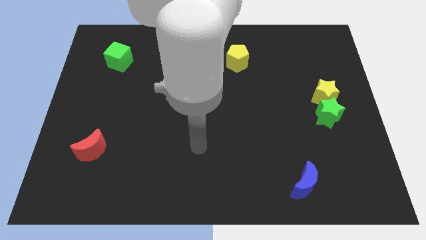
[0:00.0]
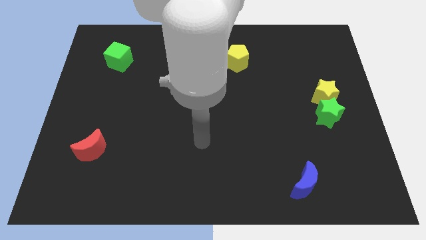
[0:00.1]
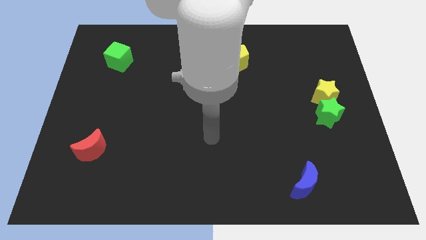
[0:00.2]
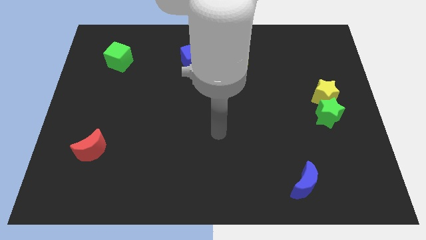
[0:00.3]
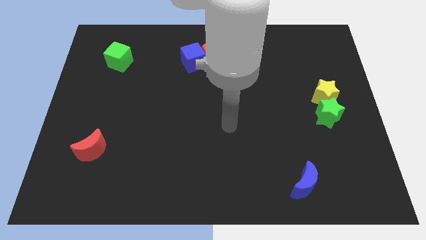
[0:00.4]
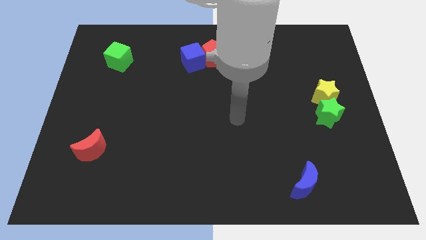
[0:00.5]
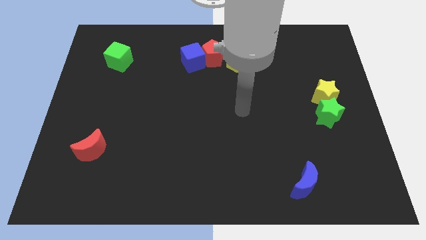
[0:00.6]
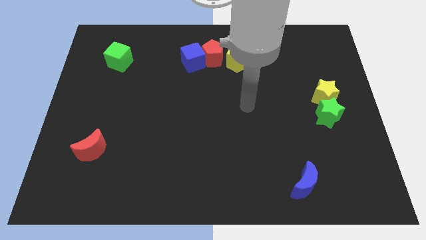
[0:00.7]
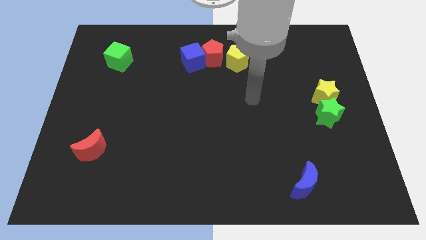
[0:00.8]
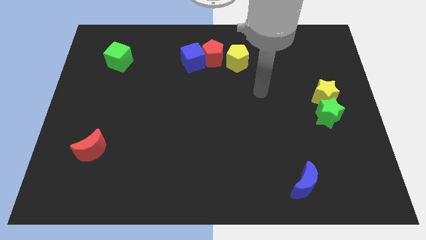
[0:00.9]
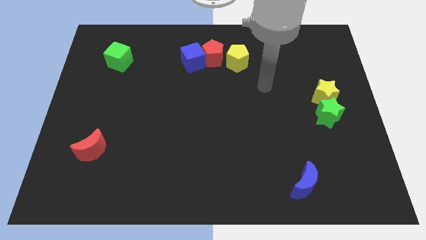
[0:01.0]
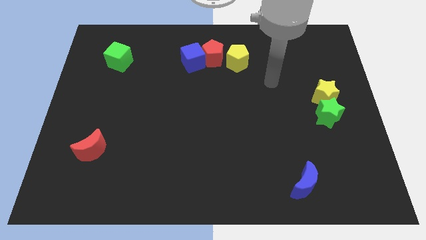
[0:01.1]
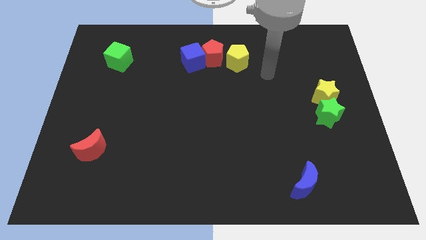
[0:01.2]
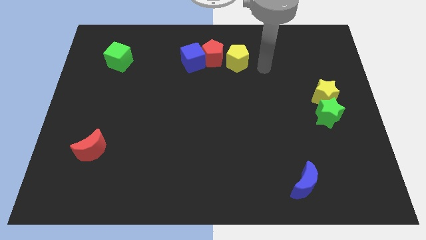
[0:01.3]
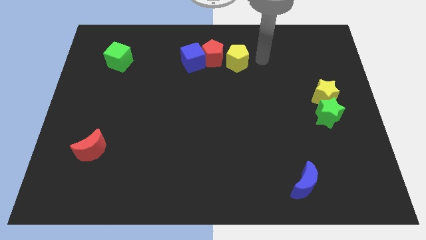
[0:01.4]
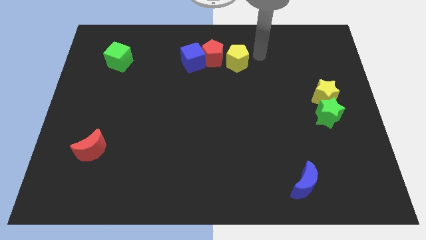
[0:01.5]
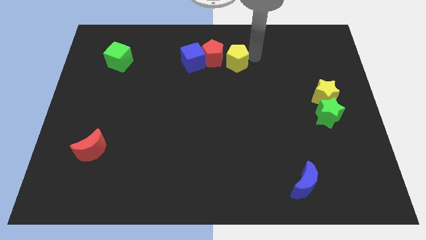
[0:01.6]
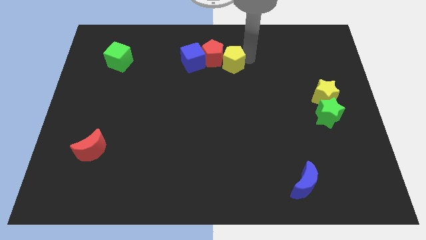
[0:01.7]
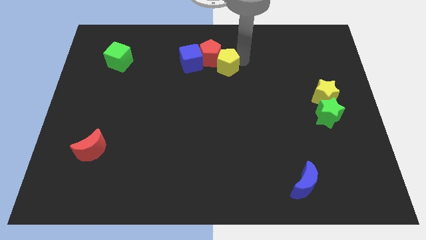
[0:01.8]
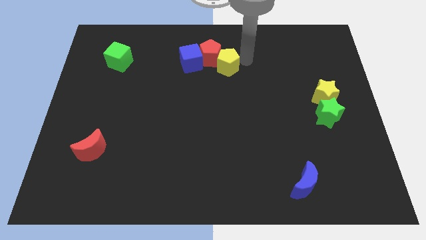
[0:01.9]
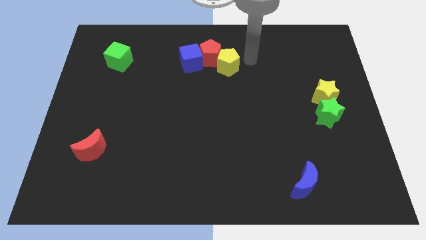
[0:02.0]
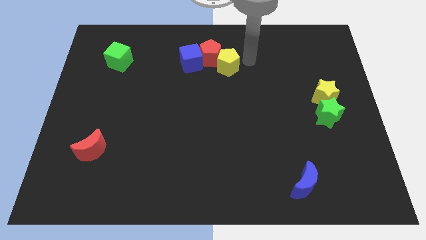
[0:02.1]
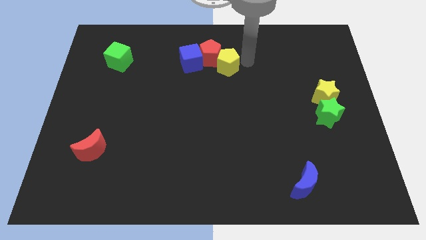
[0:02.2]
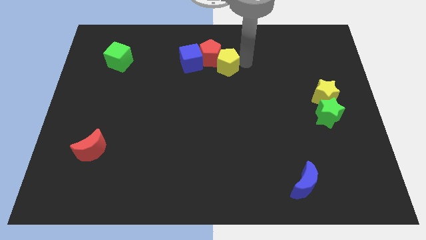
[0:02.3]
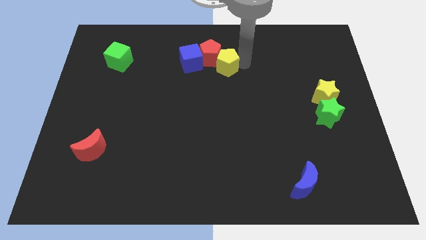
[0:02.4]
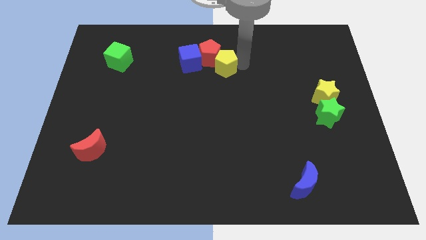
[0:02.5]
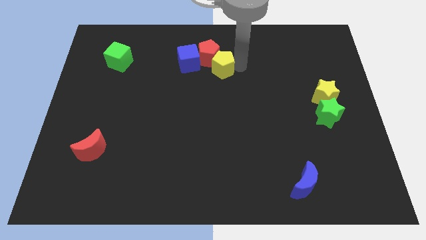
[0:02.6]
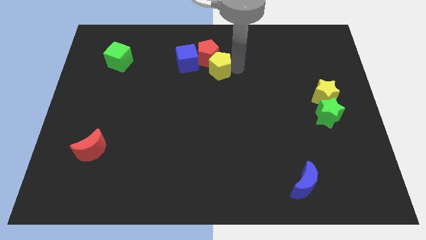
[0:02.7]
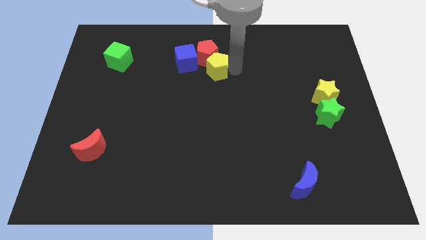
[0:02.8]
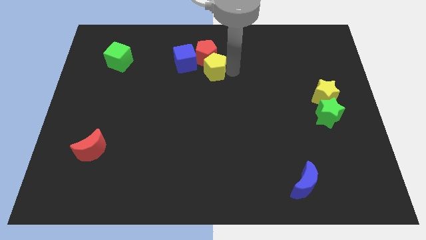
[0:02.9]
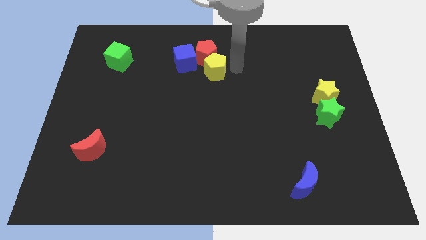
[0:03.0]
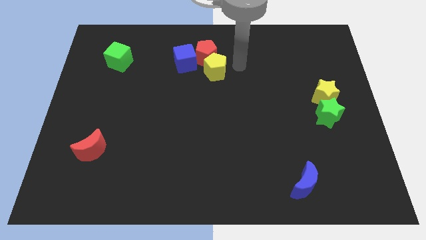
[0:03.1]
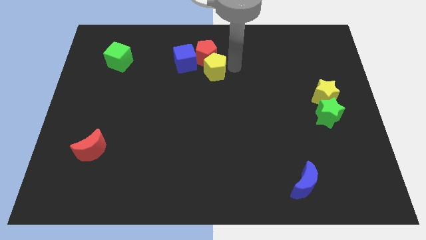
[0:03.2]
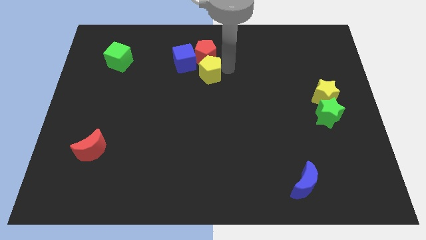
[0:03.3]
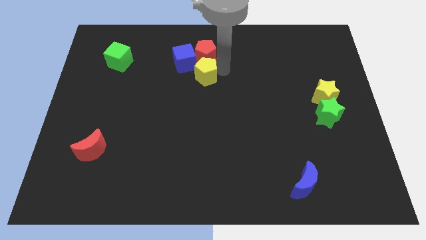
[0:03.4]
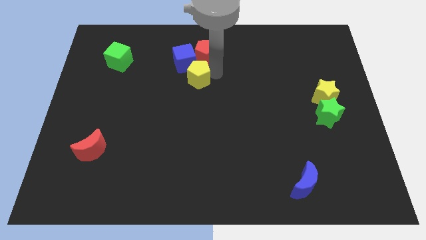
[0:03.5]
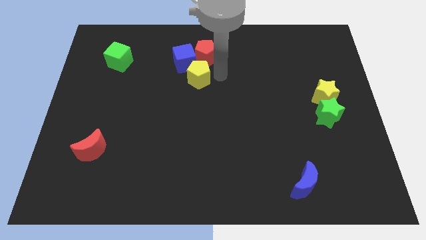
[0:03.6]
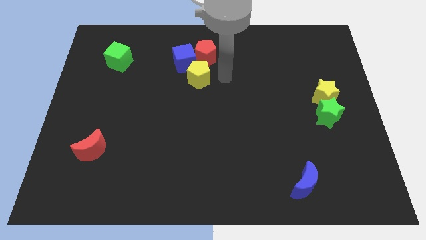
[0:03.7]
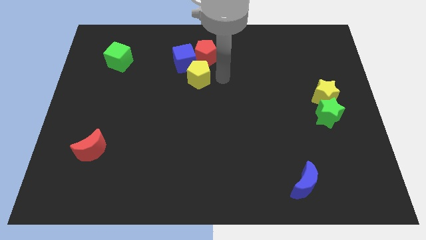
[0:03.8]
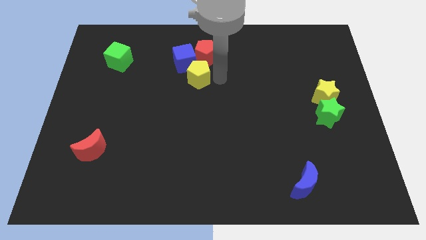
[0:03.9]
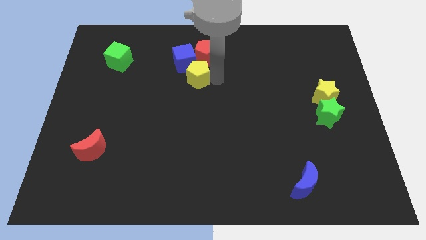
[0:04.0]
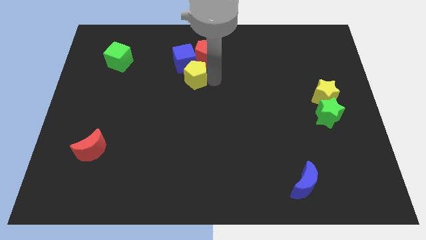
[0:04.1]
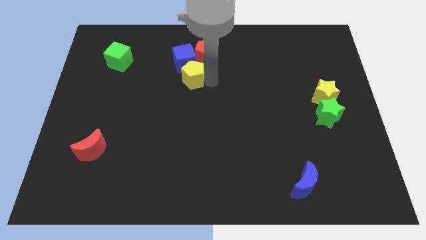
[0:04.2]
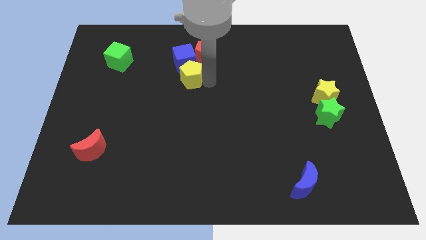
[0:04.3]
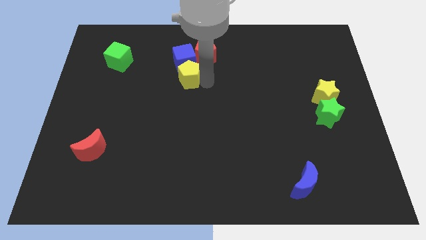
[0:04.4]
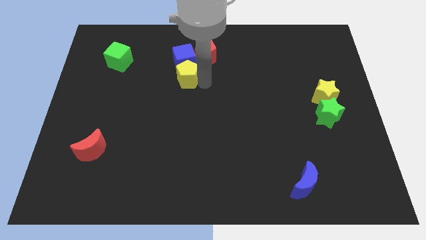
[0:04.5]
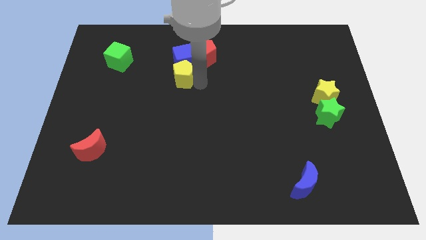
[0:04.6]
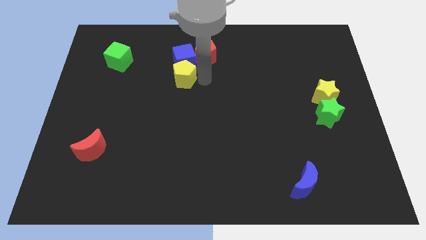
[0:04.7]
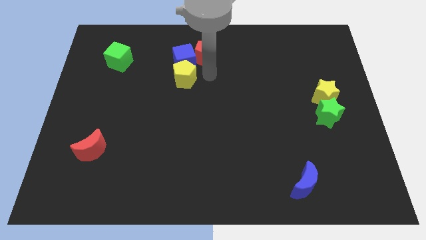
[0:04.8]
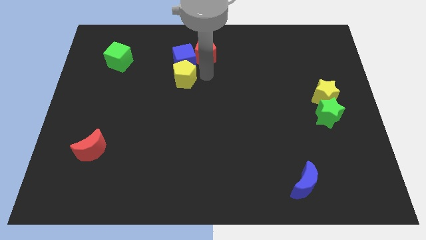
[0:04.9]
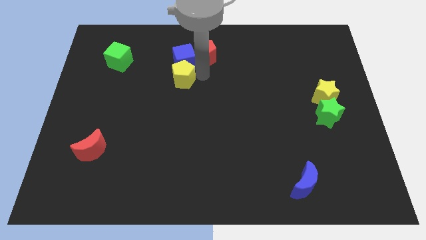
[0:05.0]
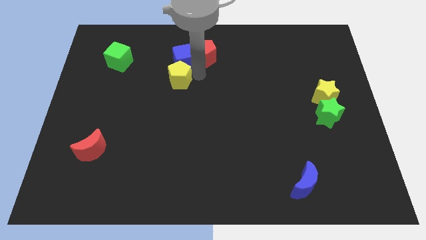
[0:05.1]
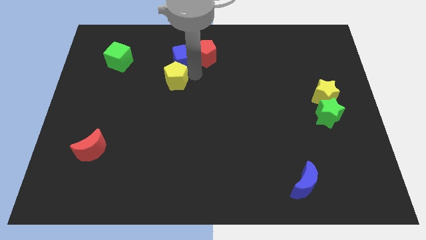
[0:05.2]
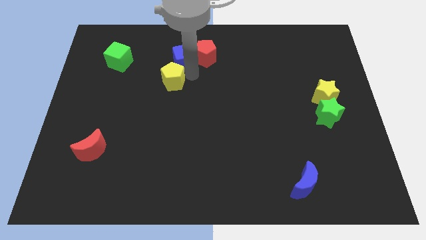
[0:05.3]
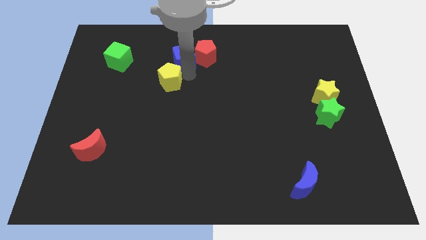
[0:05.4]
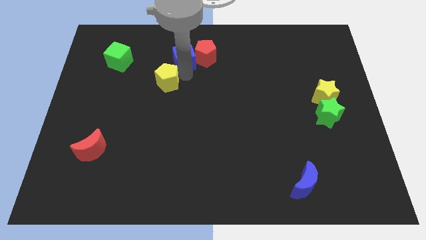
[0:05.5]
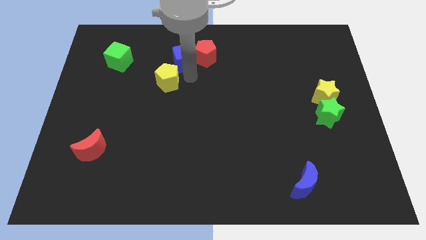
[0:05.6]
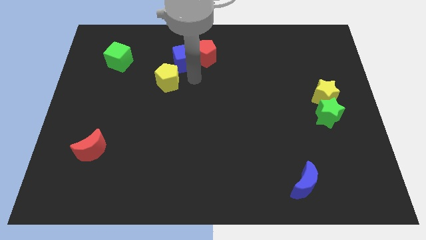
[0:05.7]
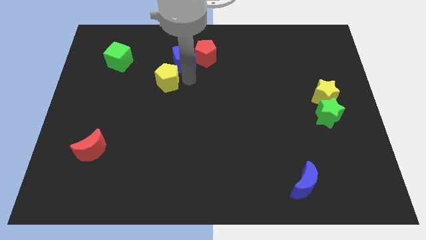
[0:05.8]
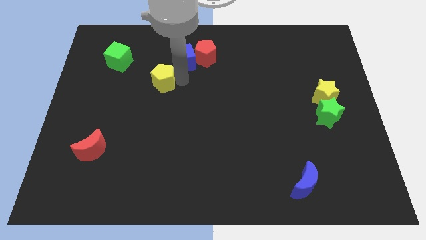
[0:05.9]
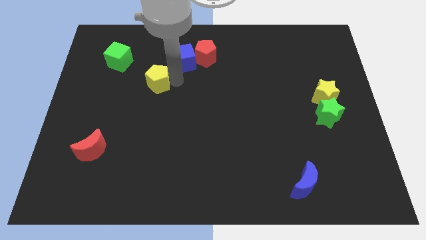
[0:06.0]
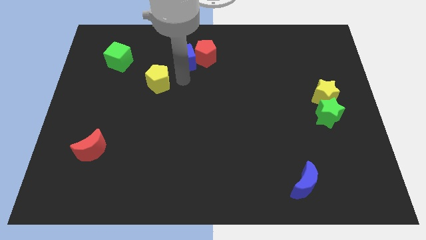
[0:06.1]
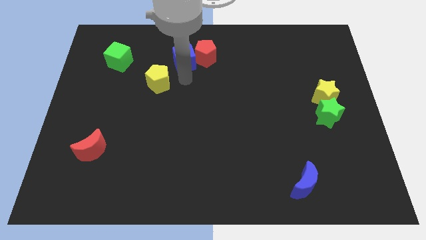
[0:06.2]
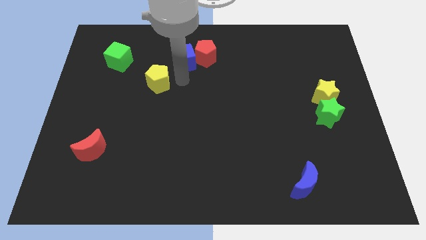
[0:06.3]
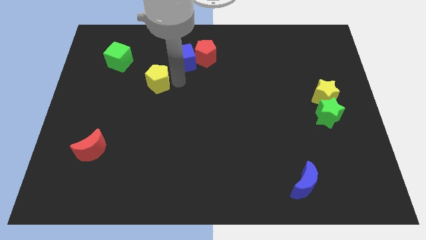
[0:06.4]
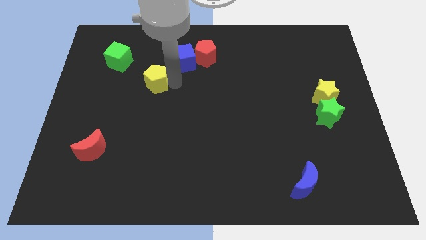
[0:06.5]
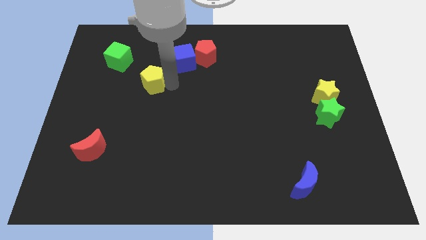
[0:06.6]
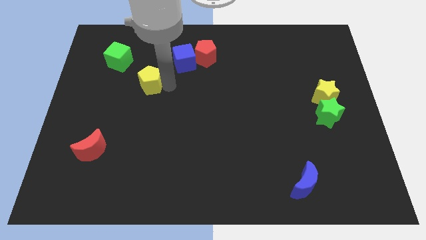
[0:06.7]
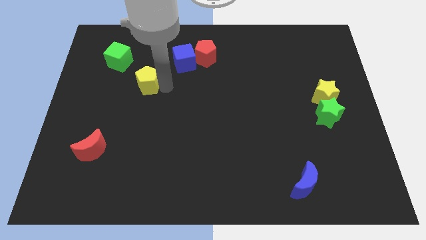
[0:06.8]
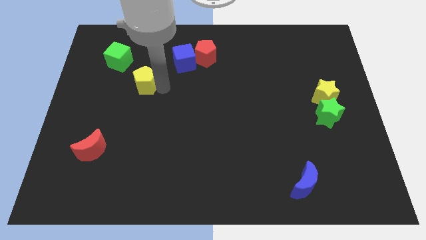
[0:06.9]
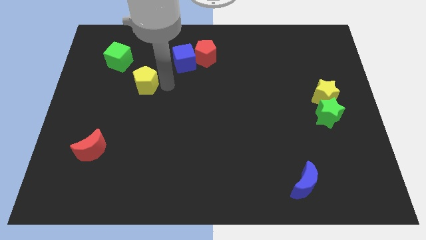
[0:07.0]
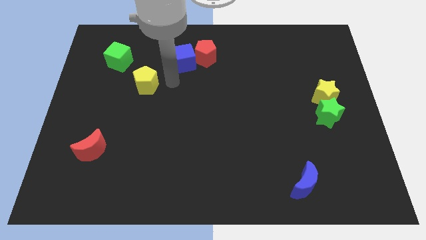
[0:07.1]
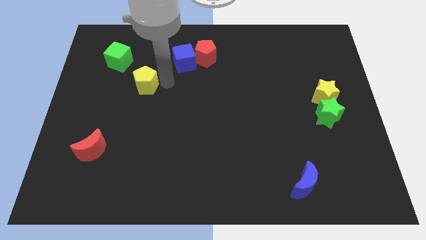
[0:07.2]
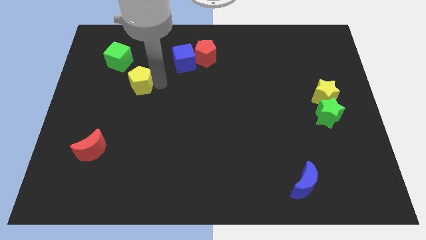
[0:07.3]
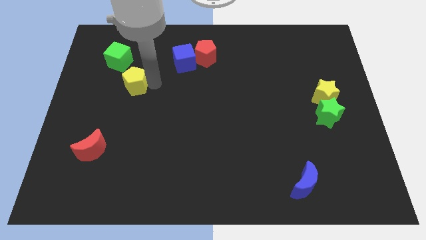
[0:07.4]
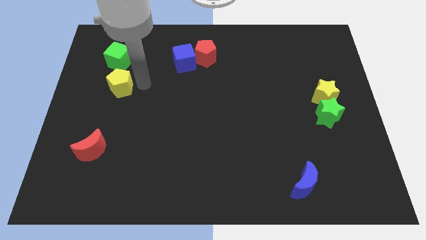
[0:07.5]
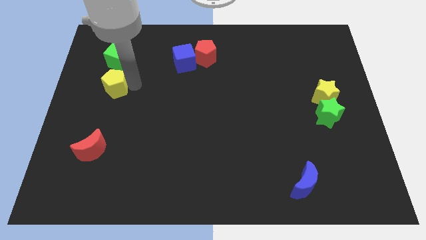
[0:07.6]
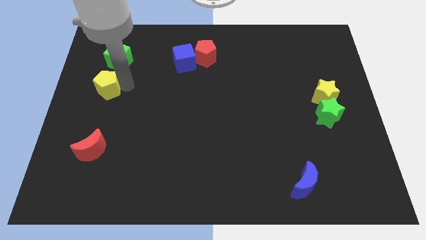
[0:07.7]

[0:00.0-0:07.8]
push the yellow pentagon to the left side

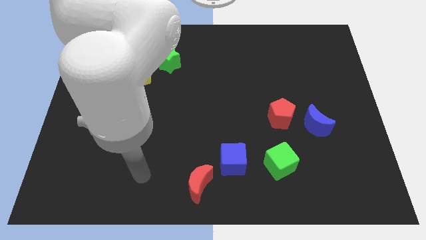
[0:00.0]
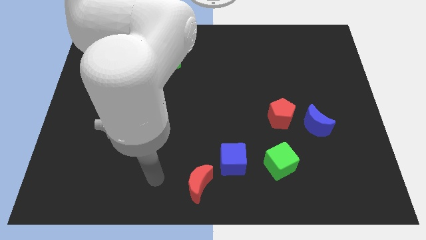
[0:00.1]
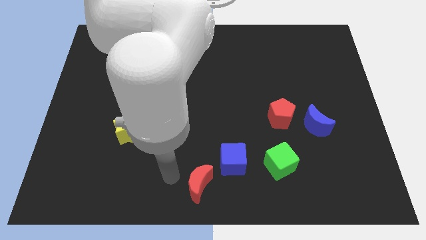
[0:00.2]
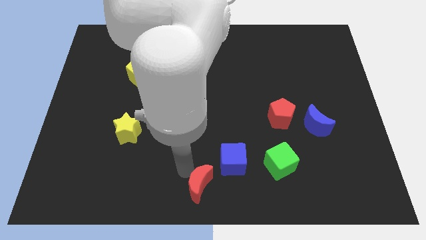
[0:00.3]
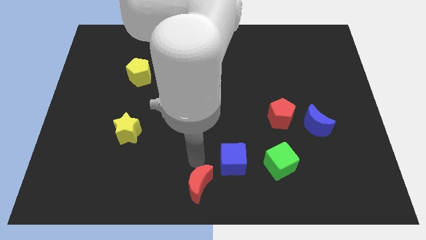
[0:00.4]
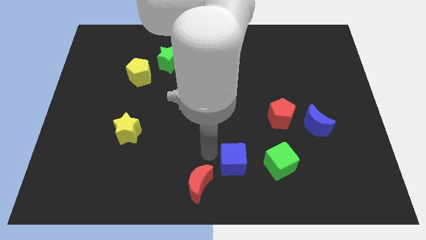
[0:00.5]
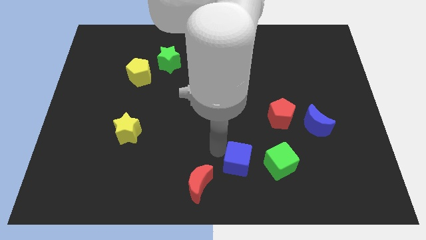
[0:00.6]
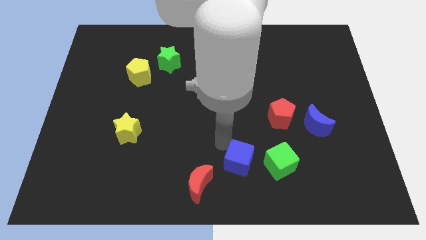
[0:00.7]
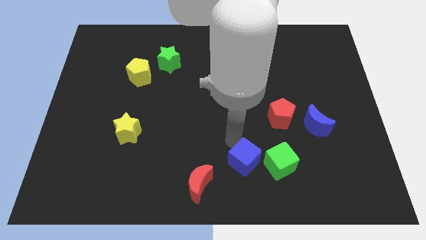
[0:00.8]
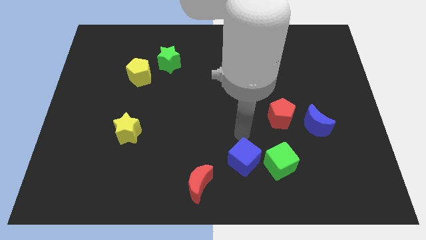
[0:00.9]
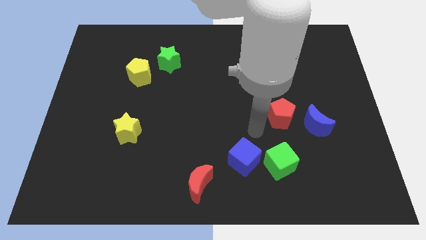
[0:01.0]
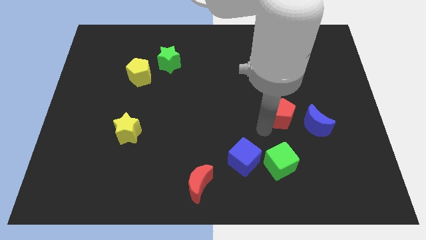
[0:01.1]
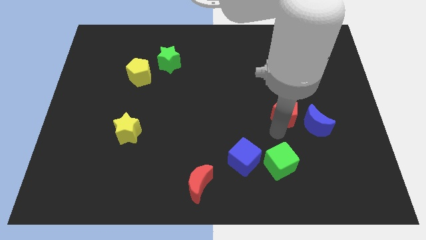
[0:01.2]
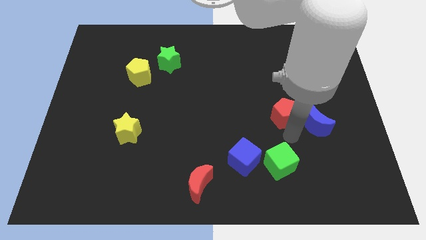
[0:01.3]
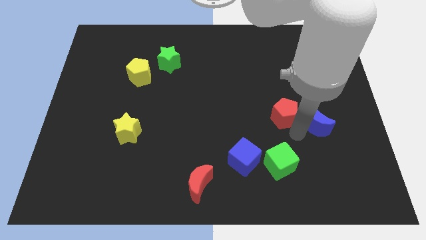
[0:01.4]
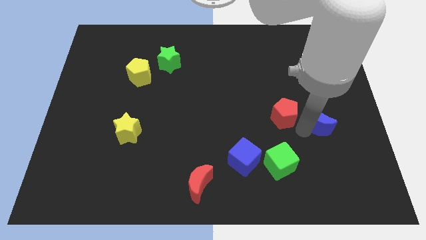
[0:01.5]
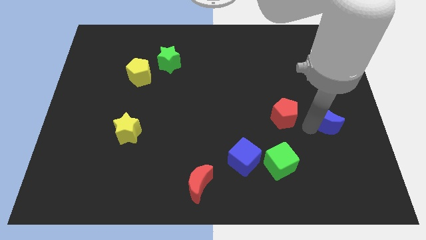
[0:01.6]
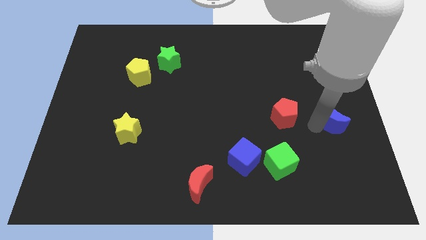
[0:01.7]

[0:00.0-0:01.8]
put the blue moon to the center right
